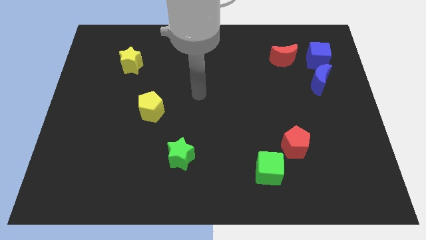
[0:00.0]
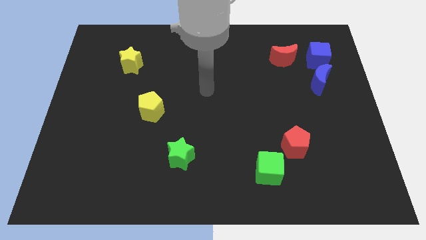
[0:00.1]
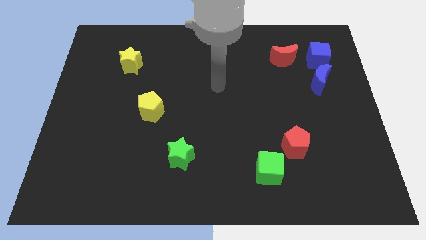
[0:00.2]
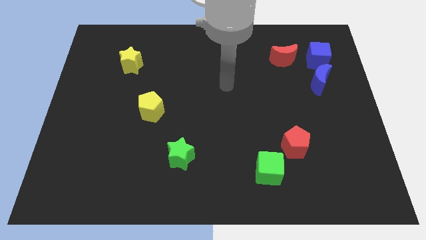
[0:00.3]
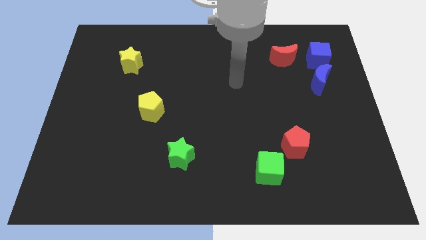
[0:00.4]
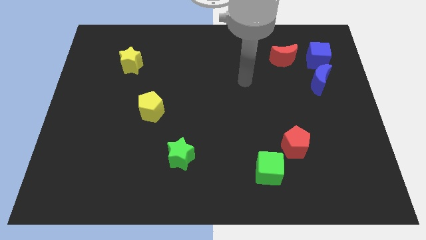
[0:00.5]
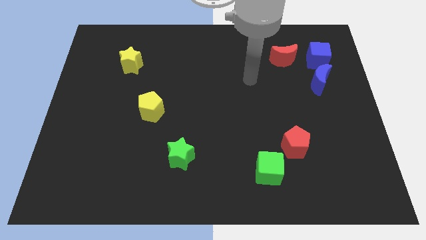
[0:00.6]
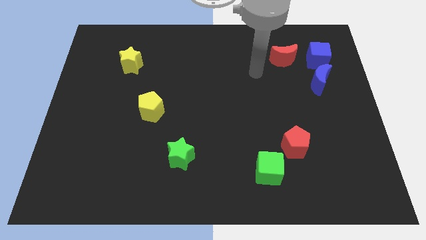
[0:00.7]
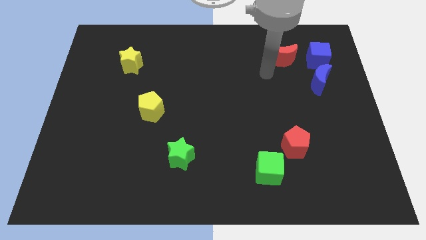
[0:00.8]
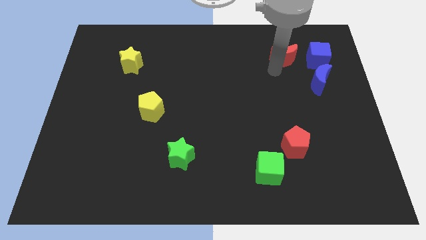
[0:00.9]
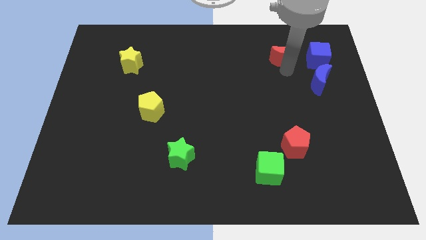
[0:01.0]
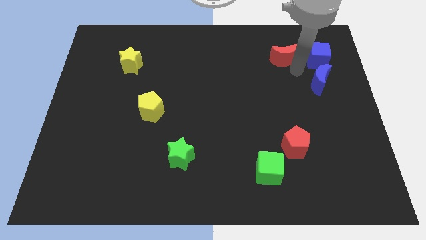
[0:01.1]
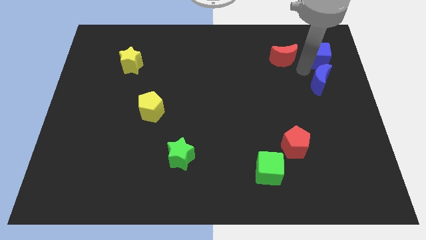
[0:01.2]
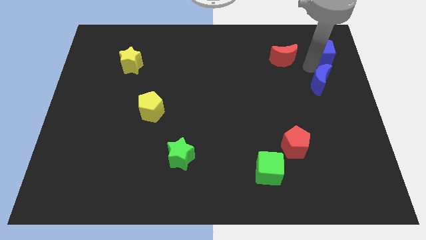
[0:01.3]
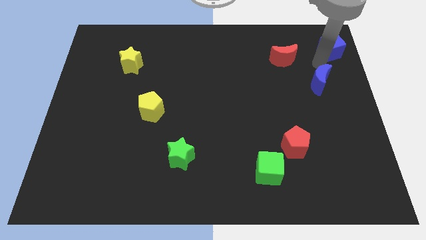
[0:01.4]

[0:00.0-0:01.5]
separate the blue moon from the blue cube

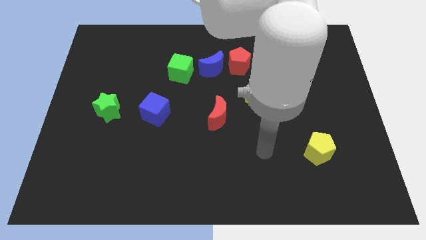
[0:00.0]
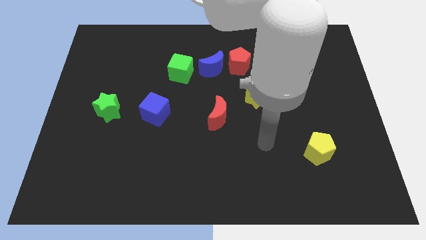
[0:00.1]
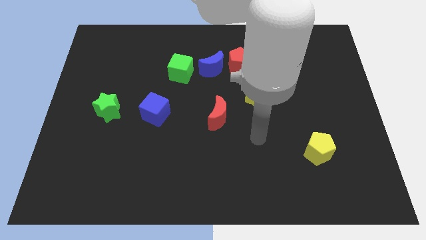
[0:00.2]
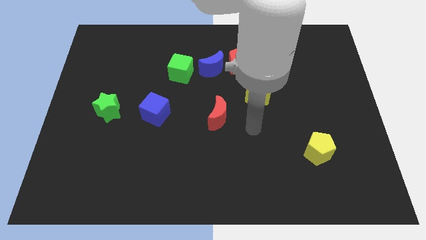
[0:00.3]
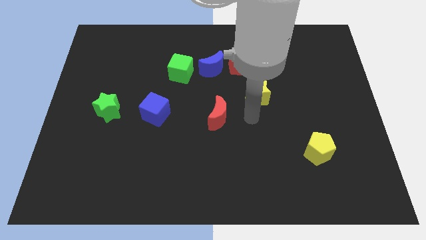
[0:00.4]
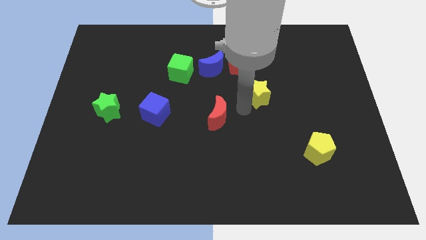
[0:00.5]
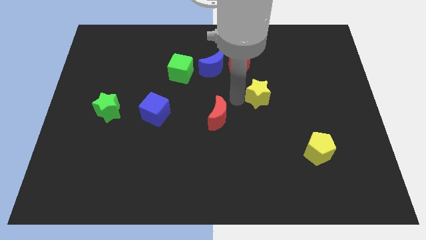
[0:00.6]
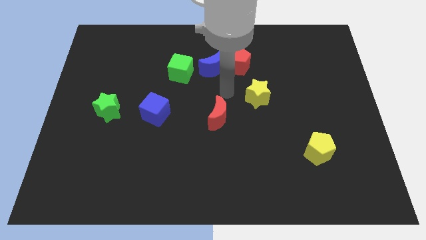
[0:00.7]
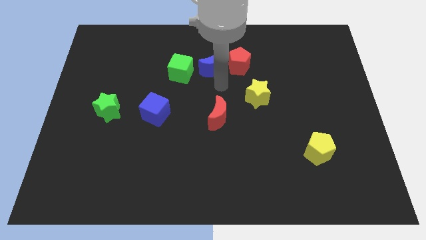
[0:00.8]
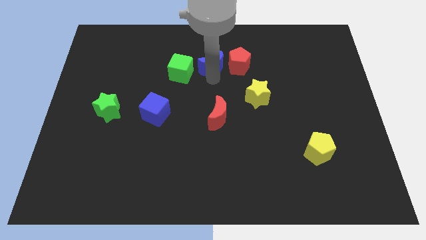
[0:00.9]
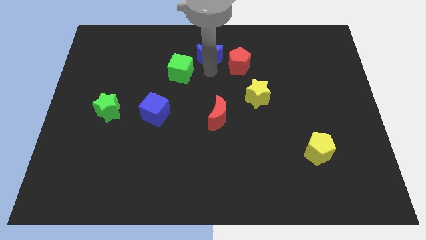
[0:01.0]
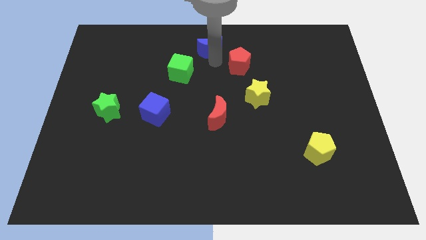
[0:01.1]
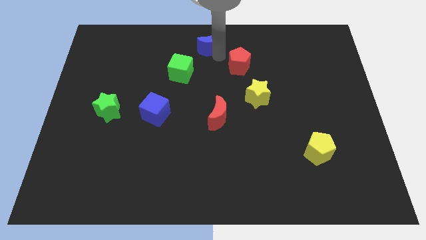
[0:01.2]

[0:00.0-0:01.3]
separate the red pentagon from the blue moon

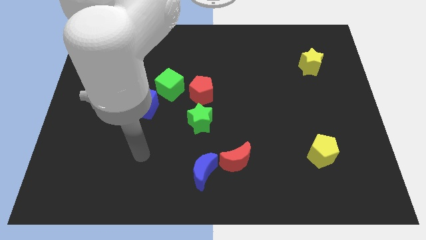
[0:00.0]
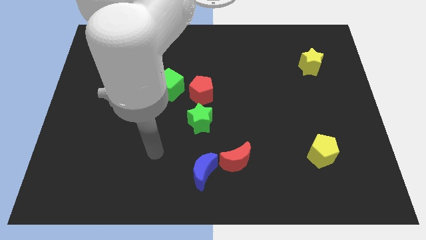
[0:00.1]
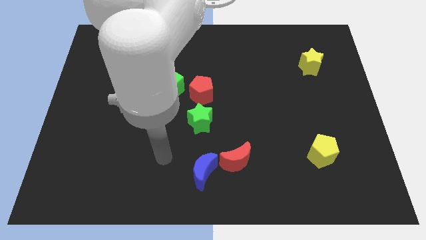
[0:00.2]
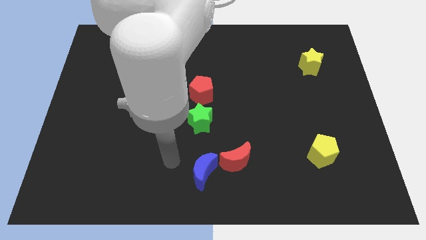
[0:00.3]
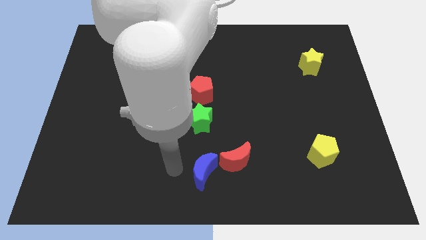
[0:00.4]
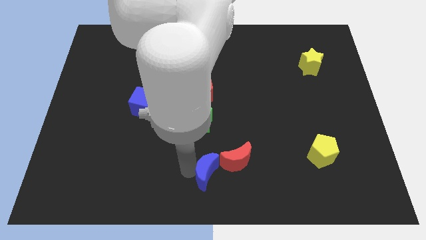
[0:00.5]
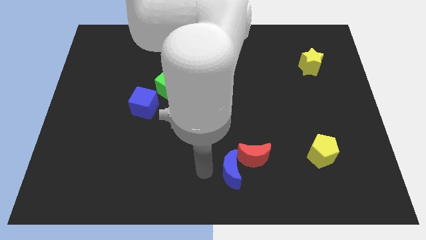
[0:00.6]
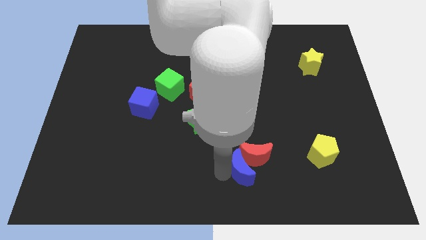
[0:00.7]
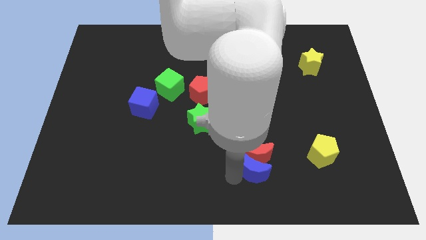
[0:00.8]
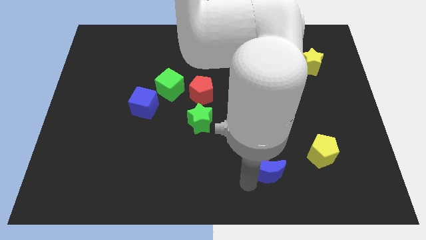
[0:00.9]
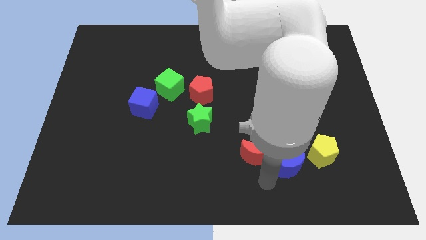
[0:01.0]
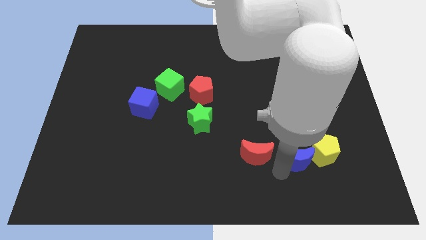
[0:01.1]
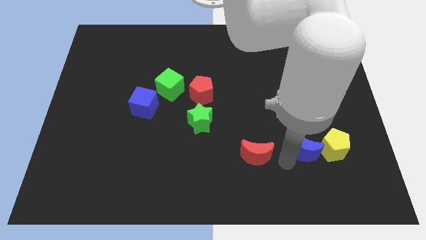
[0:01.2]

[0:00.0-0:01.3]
move the red moon away from the blue moon

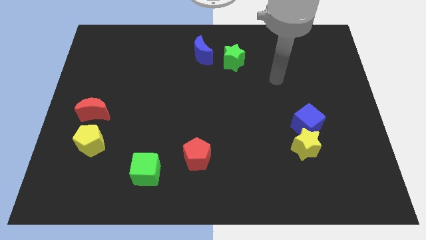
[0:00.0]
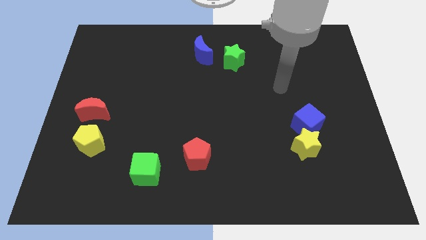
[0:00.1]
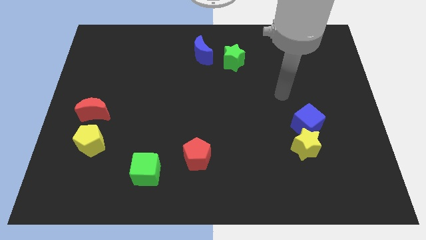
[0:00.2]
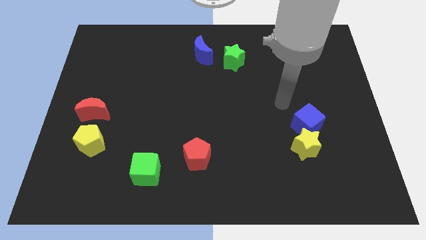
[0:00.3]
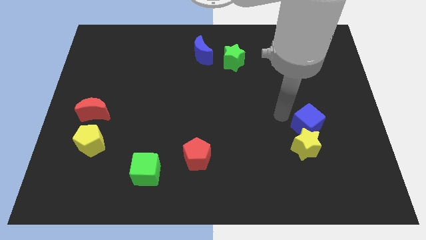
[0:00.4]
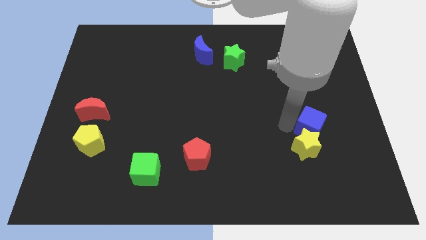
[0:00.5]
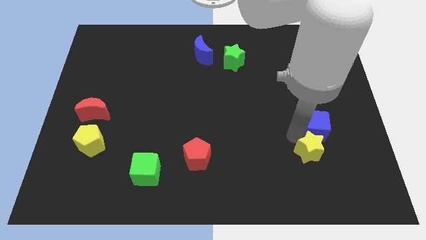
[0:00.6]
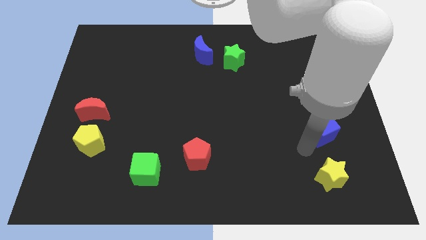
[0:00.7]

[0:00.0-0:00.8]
pull the blue cube apart from the yellow star

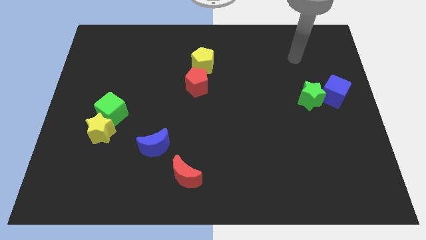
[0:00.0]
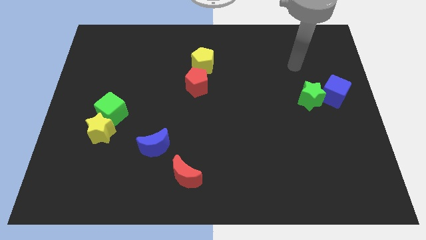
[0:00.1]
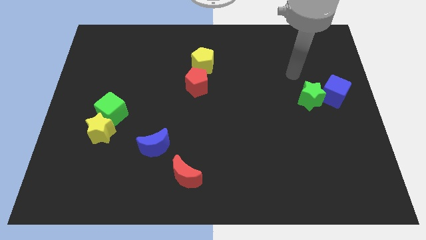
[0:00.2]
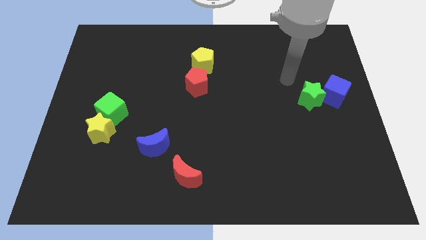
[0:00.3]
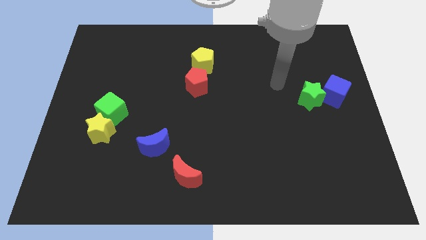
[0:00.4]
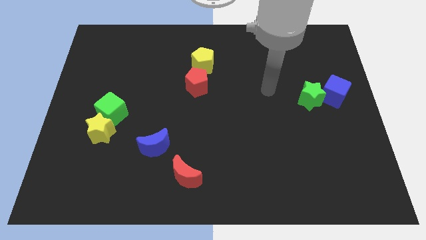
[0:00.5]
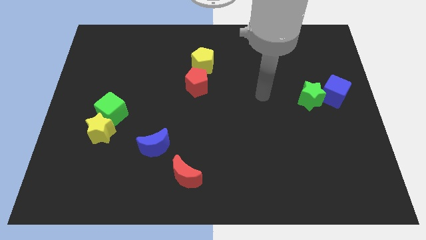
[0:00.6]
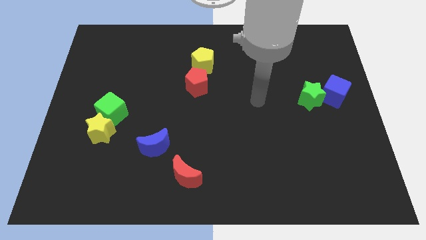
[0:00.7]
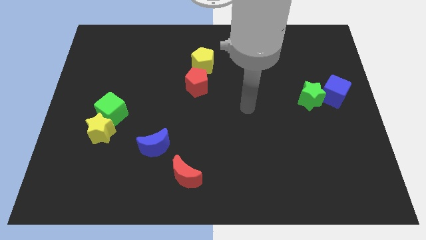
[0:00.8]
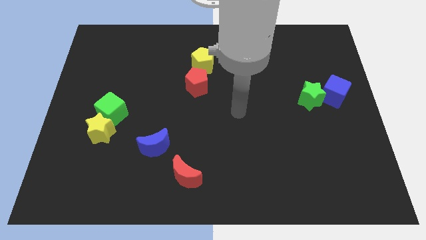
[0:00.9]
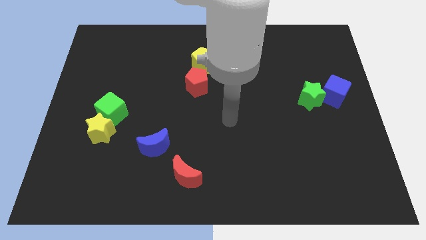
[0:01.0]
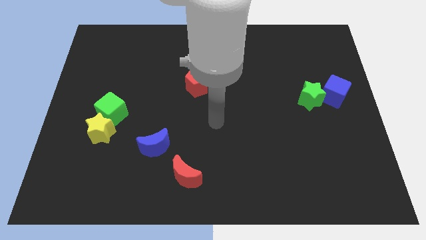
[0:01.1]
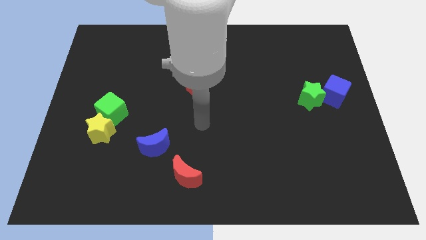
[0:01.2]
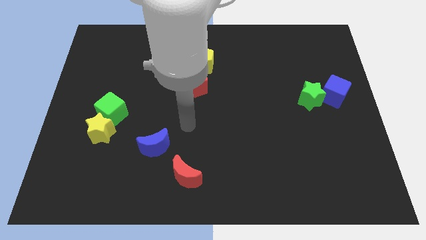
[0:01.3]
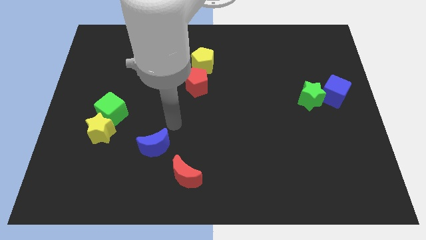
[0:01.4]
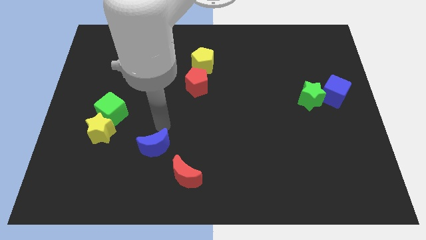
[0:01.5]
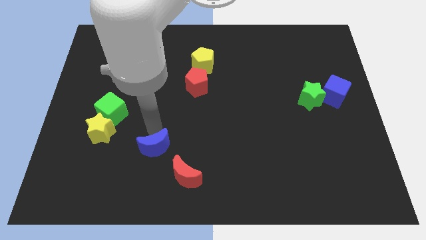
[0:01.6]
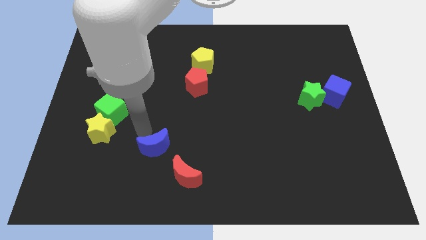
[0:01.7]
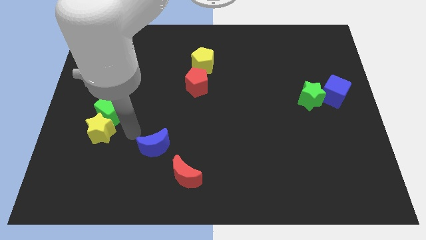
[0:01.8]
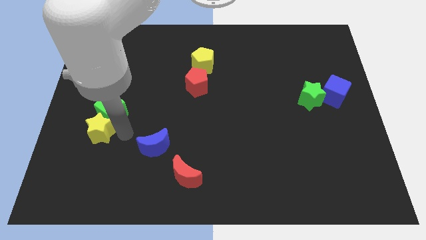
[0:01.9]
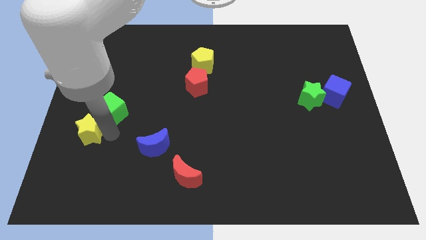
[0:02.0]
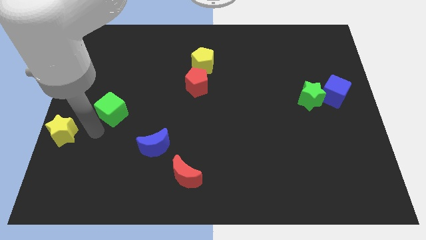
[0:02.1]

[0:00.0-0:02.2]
separate the green cube from the yellow star

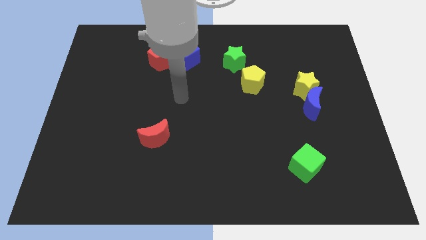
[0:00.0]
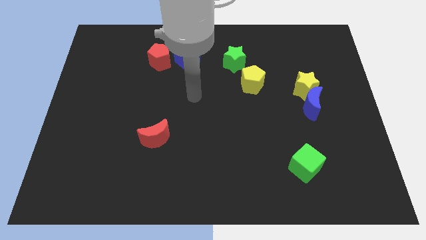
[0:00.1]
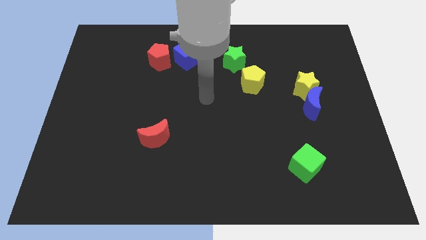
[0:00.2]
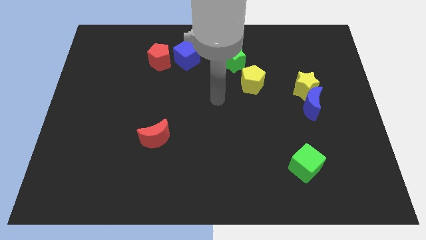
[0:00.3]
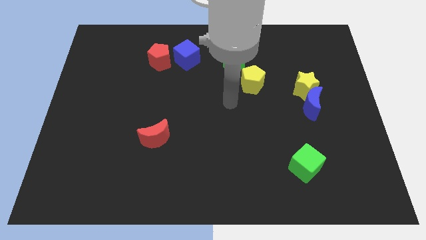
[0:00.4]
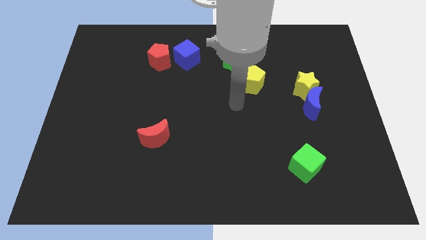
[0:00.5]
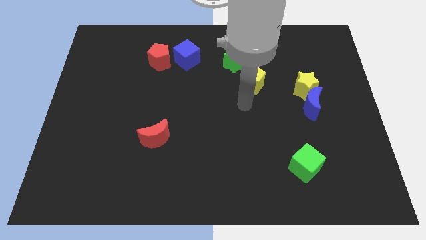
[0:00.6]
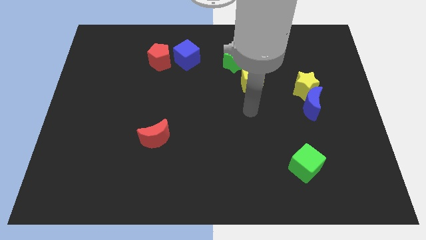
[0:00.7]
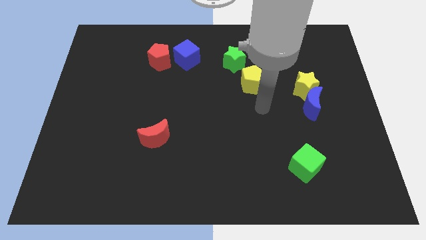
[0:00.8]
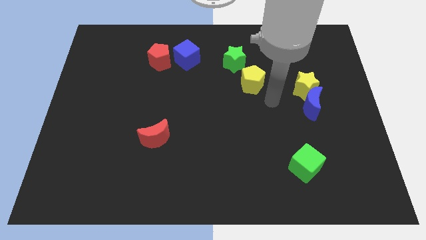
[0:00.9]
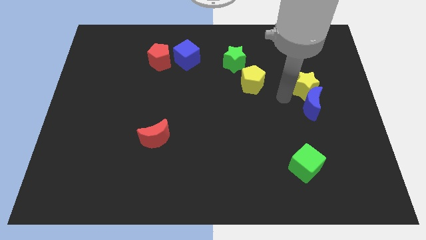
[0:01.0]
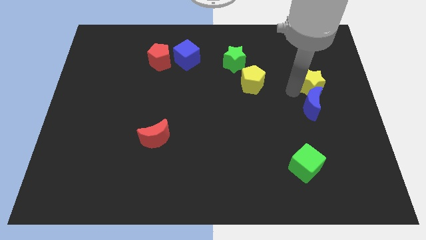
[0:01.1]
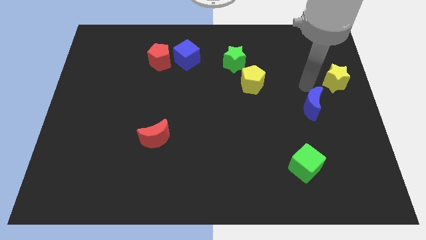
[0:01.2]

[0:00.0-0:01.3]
separate the blue moon from the yellow star

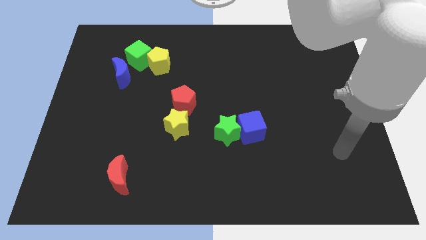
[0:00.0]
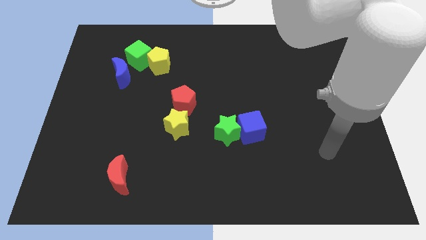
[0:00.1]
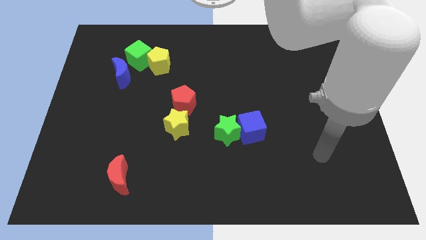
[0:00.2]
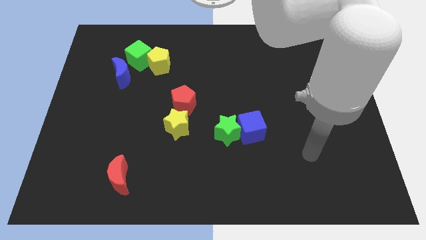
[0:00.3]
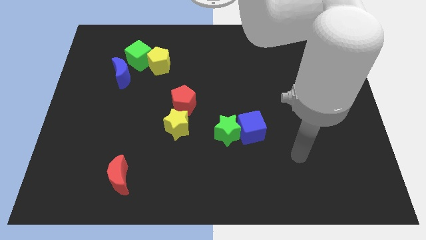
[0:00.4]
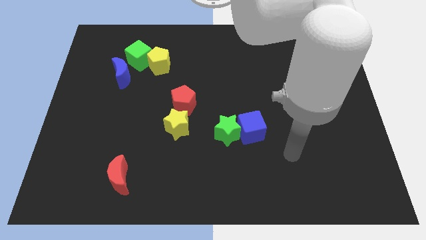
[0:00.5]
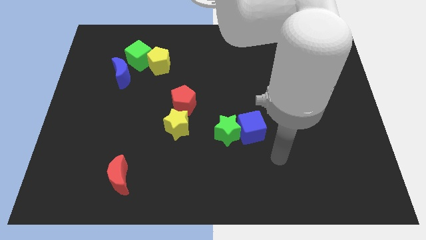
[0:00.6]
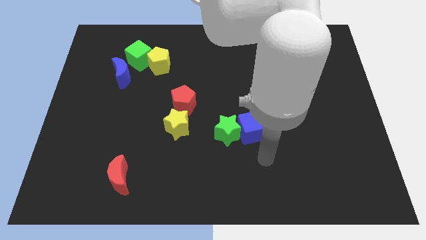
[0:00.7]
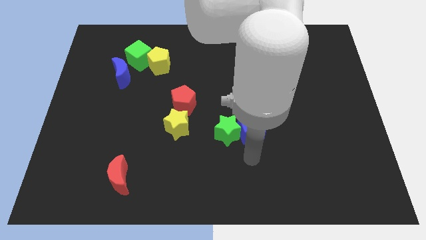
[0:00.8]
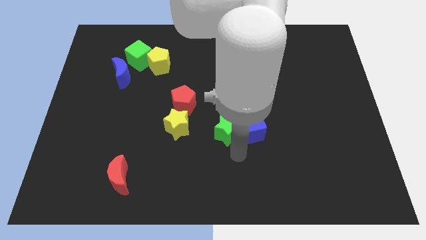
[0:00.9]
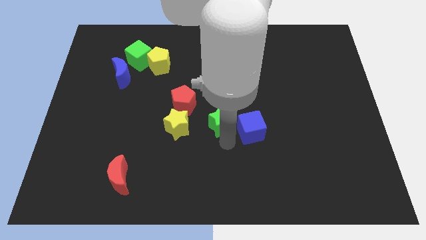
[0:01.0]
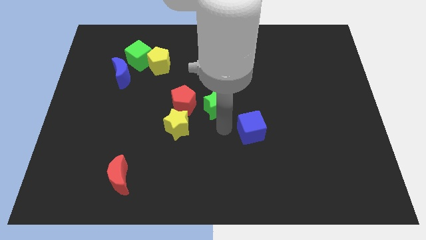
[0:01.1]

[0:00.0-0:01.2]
move the blue cube away from the green star
